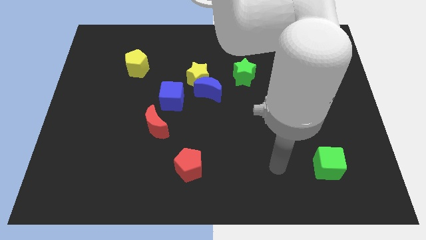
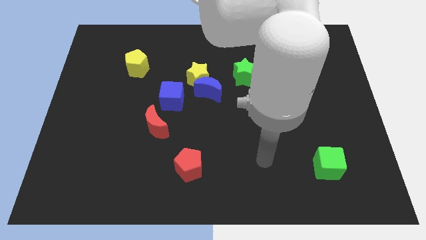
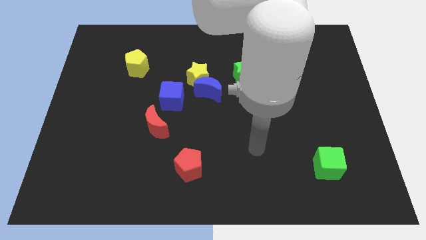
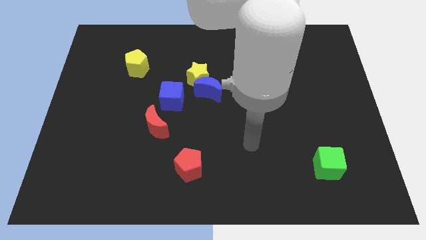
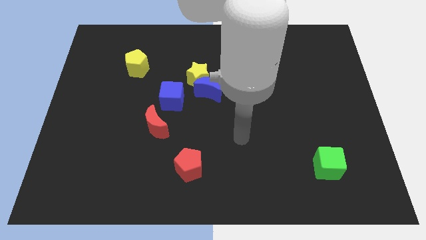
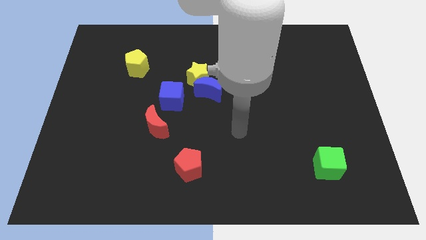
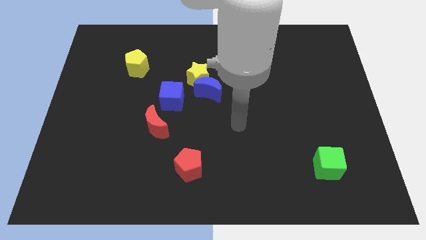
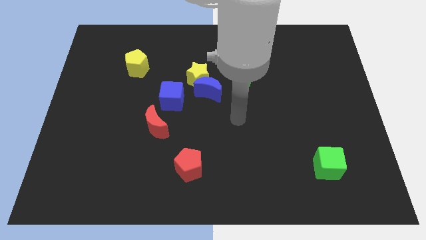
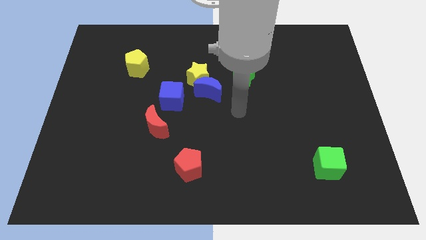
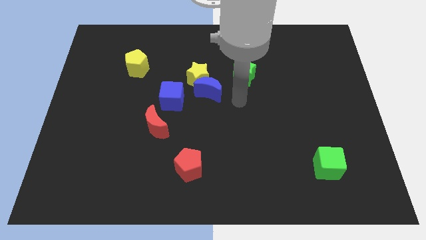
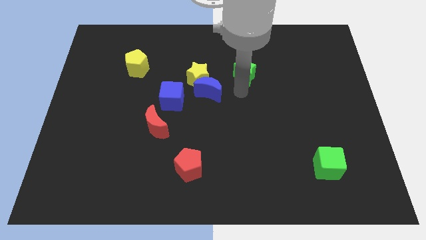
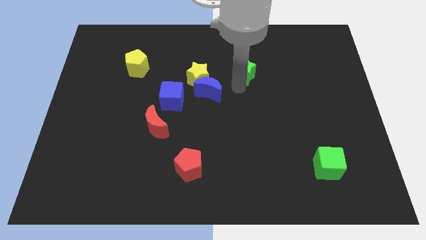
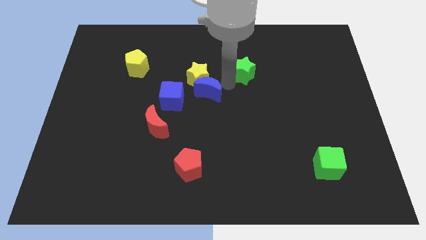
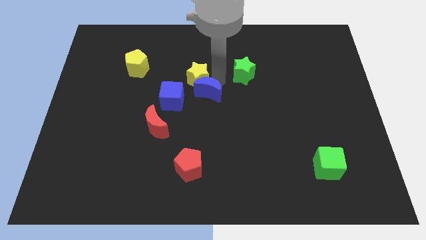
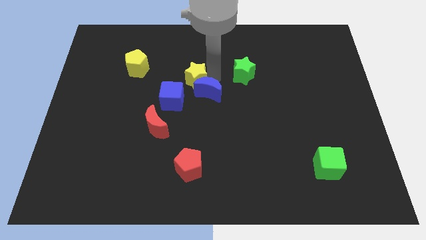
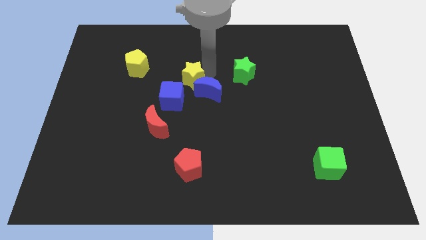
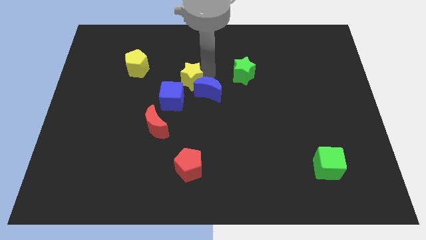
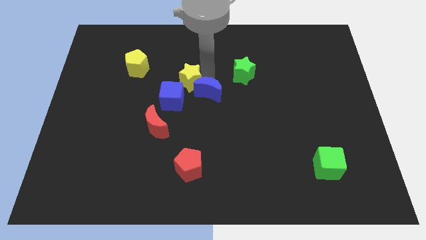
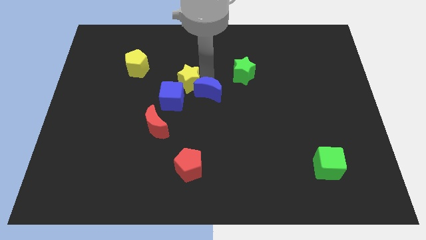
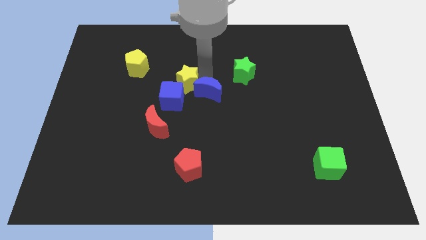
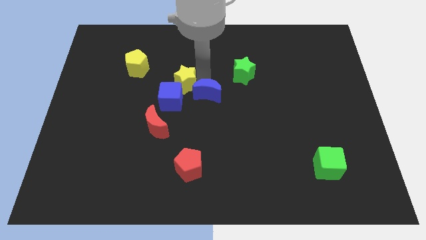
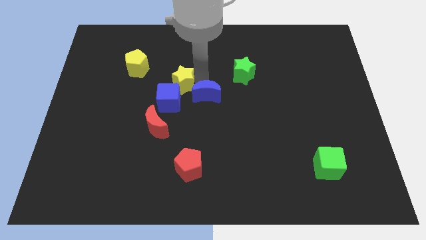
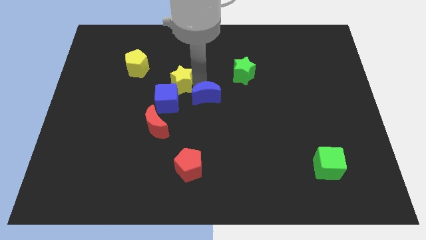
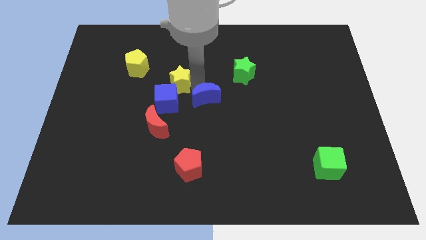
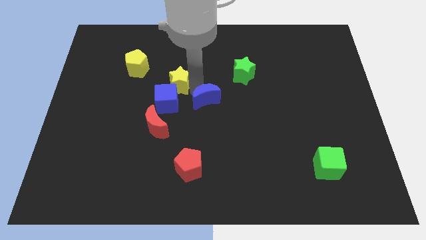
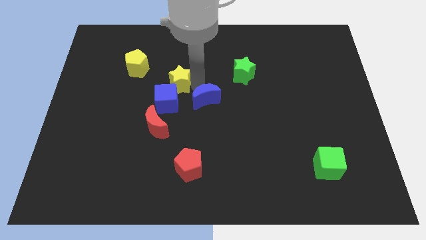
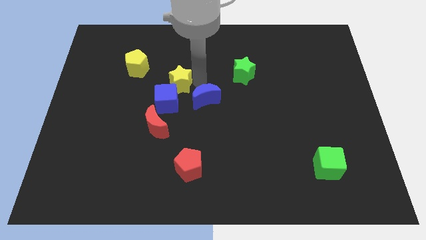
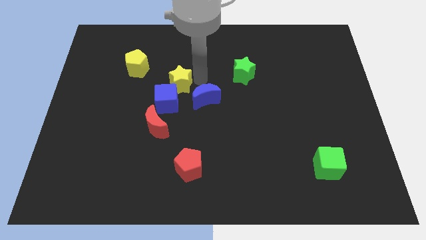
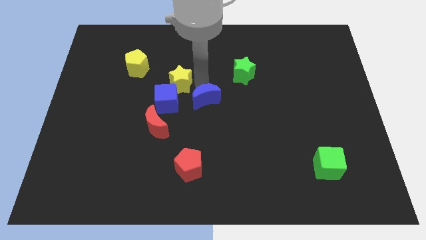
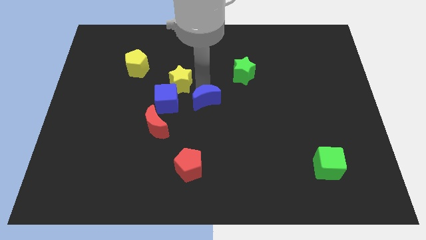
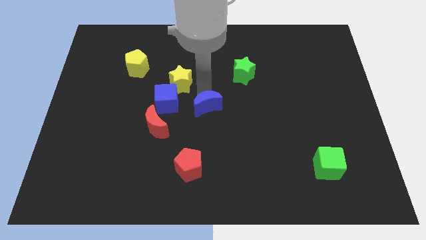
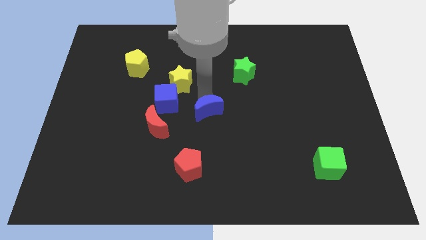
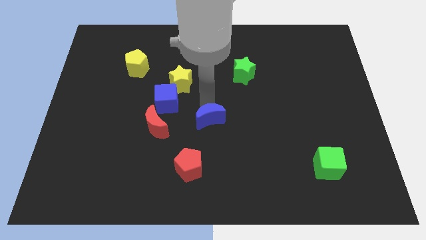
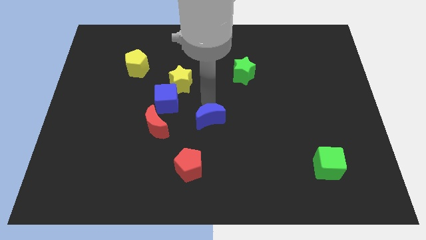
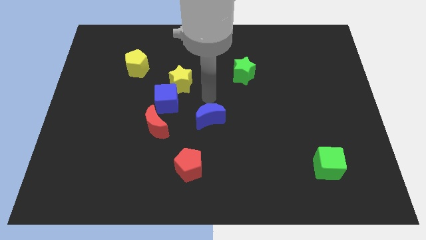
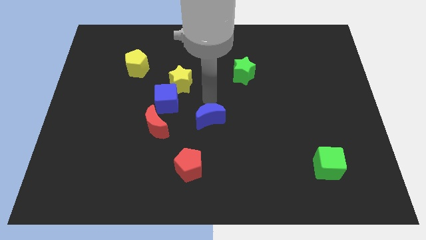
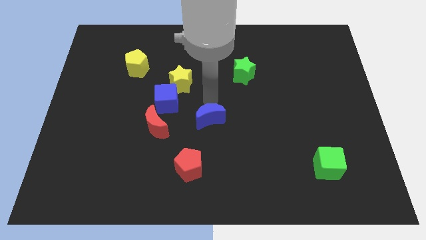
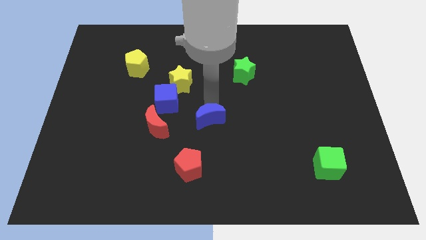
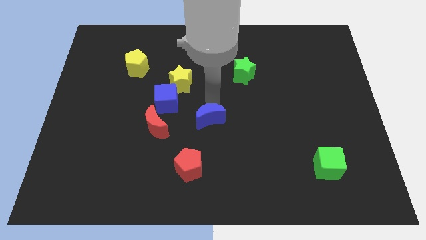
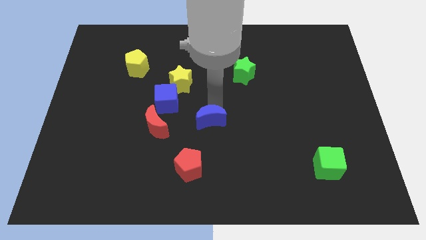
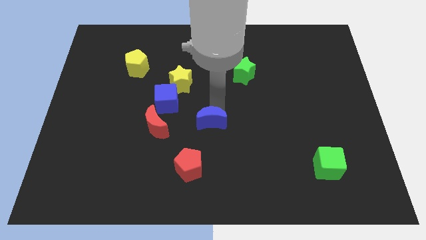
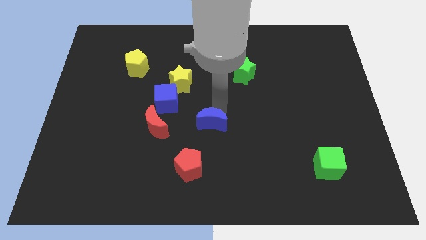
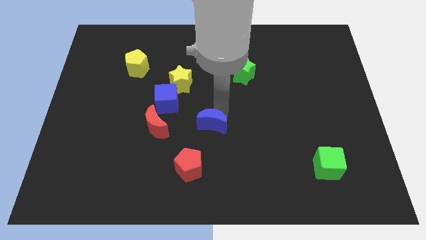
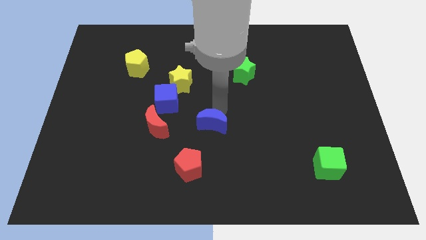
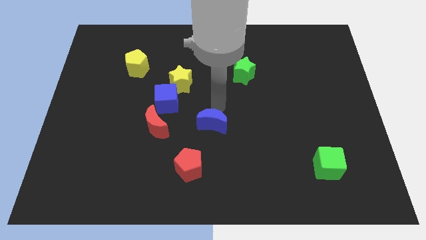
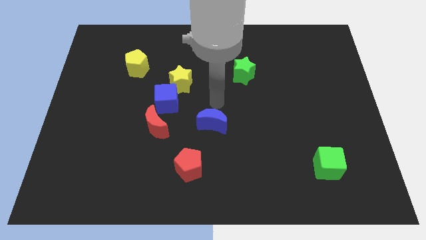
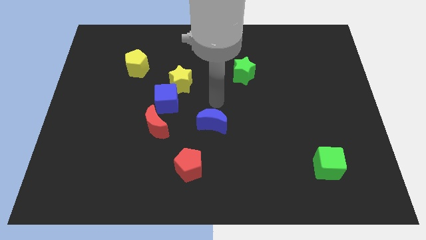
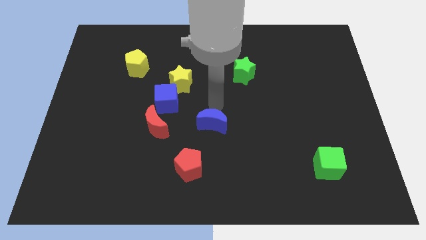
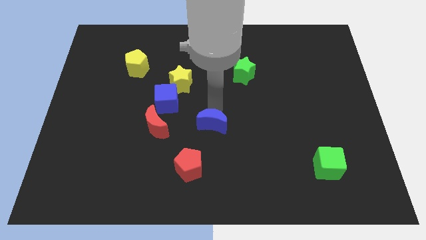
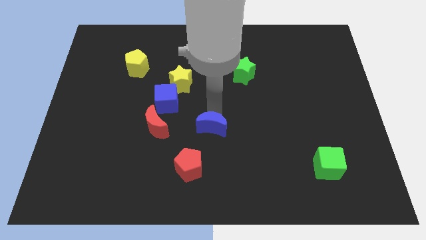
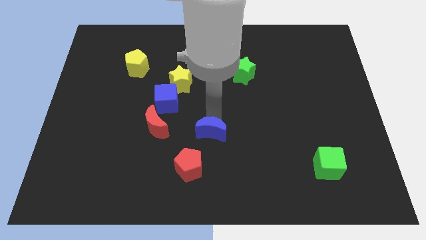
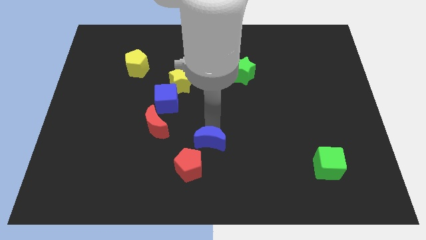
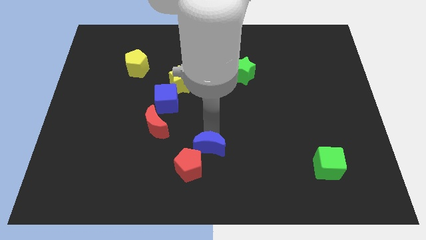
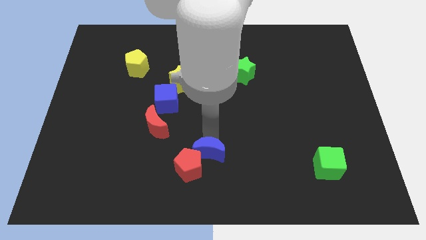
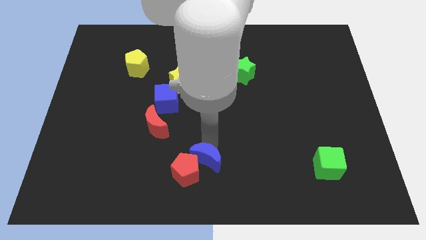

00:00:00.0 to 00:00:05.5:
slide the blue moon to the bottom

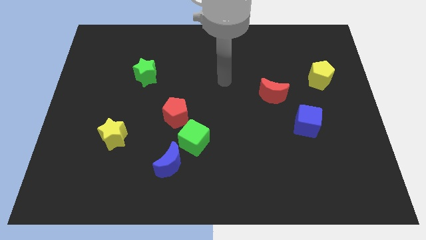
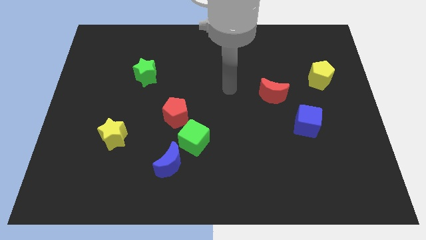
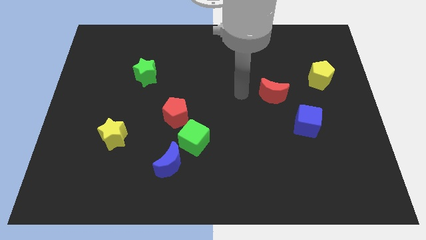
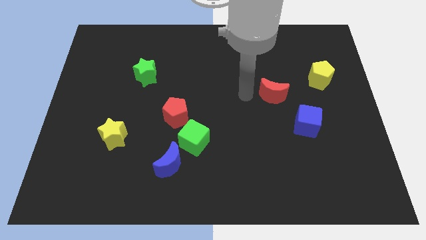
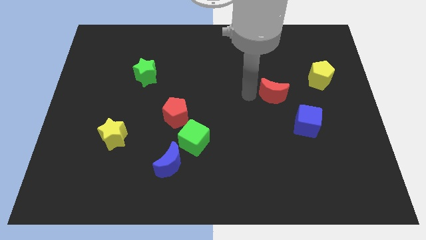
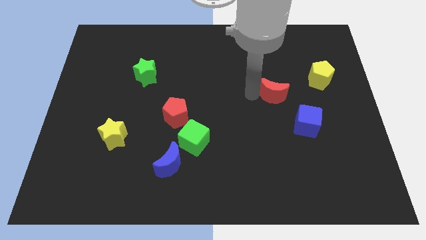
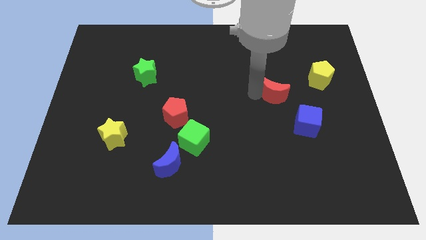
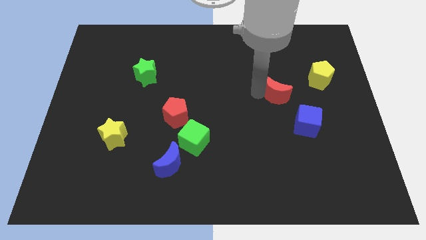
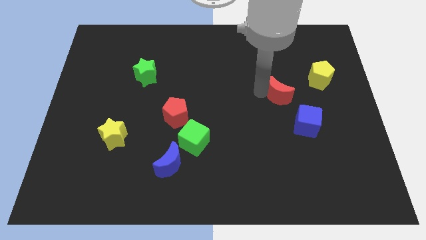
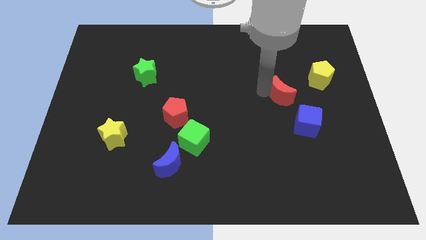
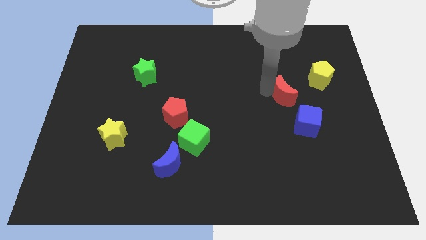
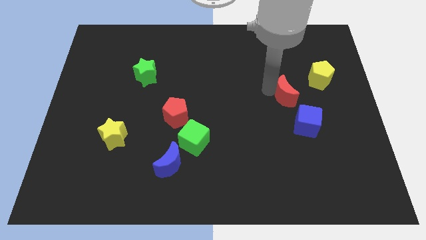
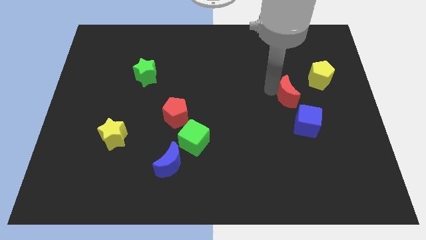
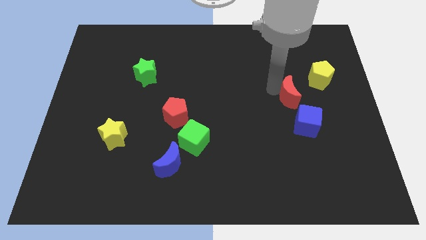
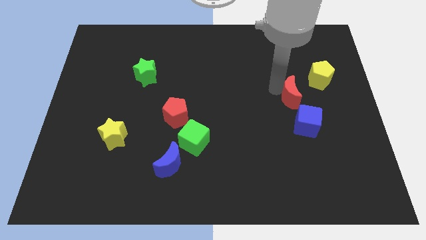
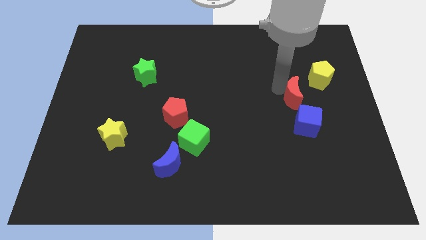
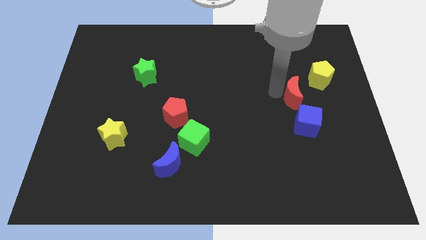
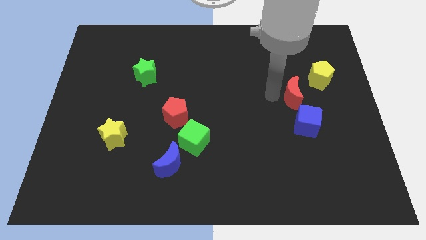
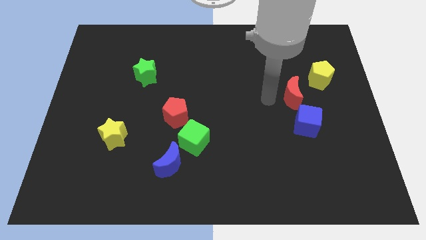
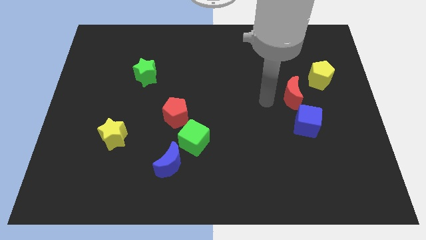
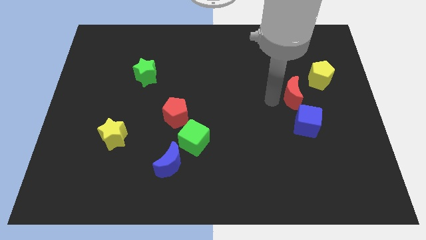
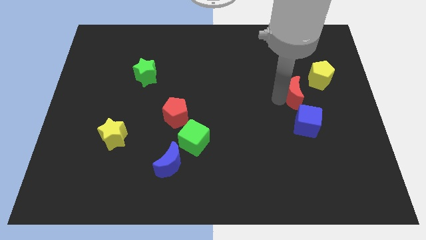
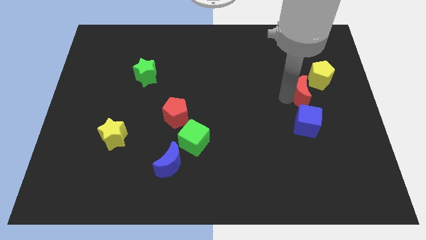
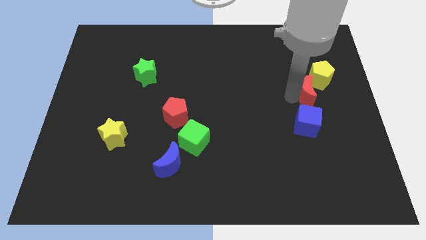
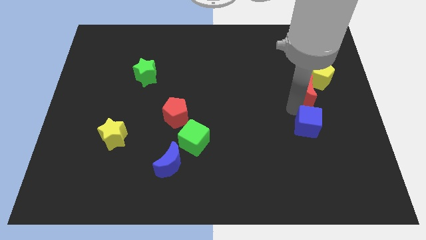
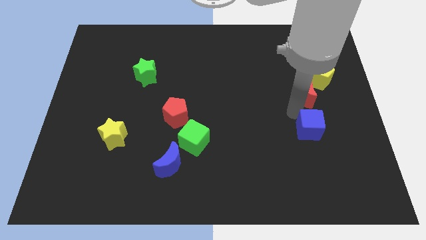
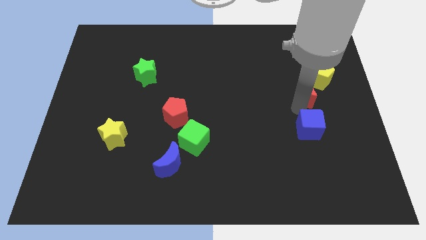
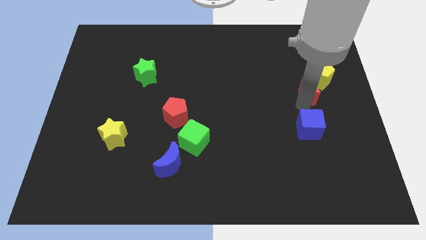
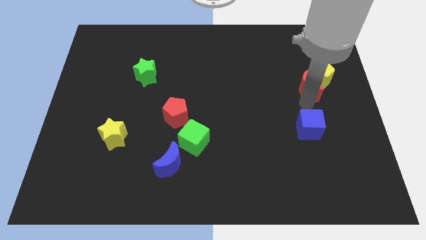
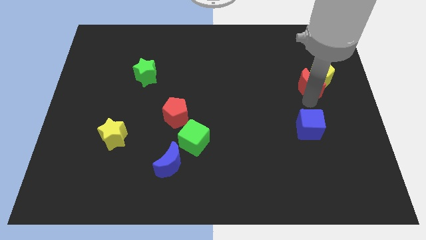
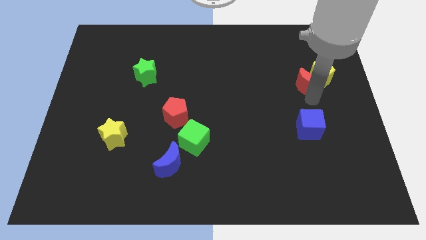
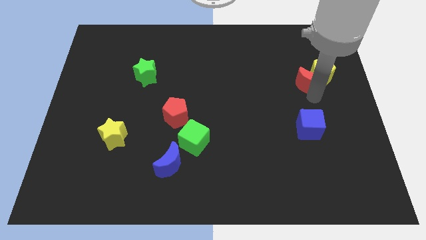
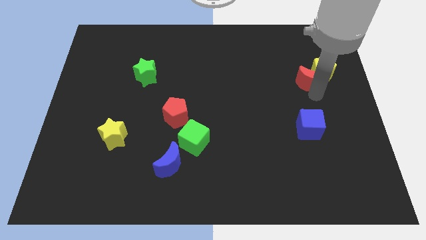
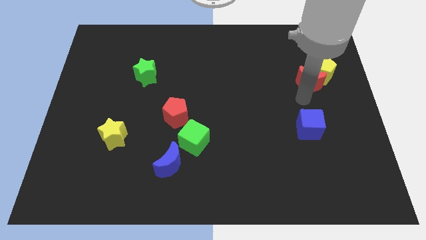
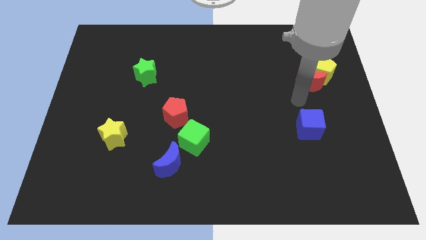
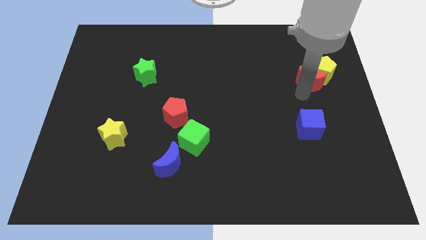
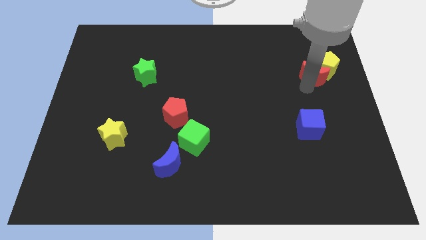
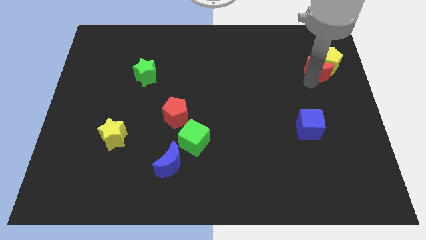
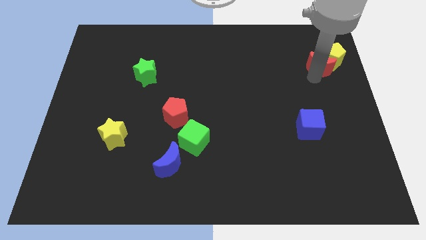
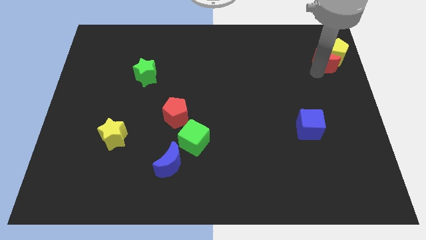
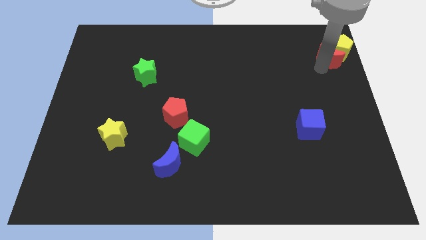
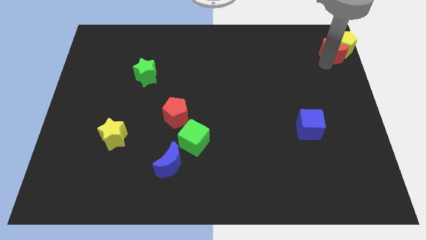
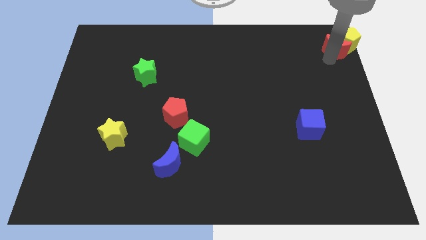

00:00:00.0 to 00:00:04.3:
put the red moon to the top right
